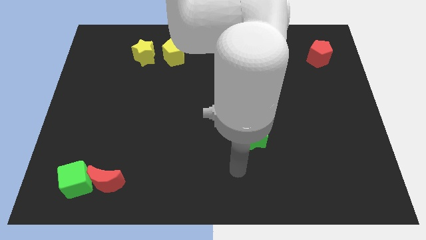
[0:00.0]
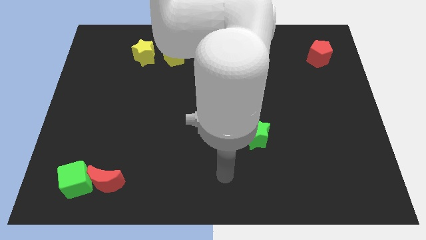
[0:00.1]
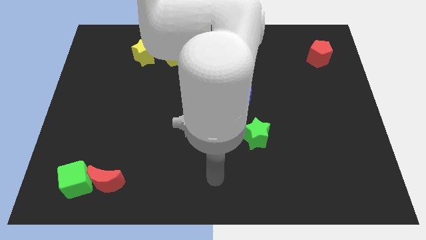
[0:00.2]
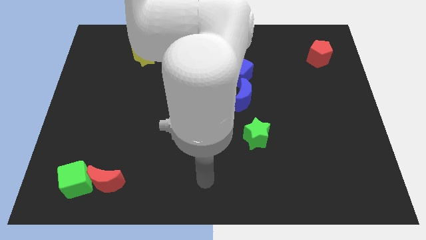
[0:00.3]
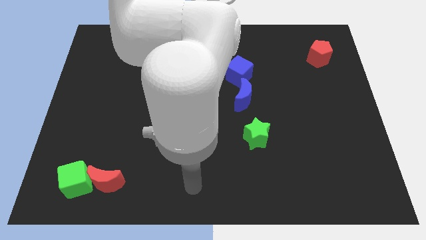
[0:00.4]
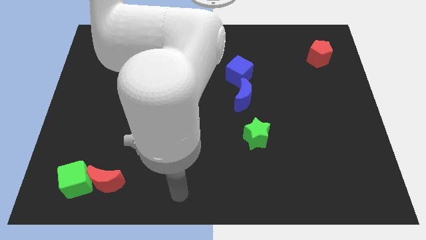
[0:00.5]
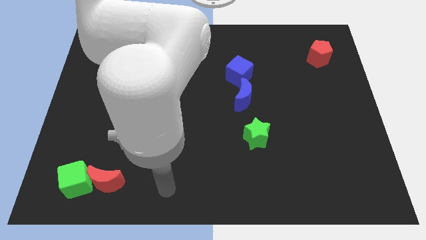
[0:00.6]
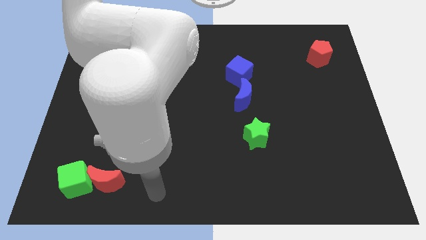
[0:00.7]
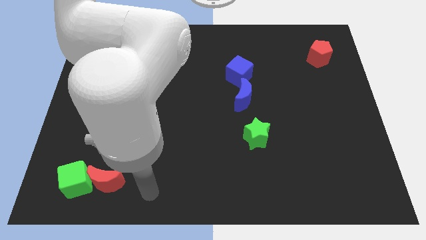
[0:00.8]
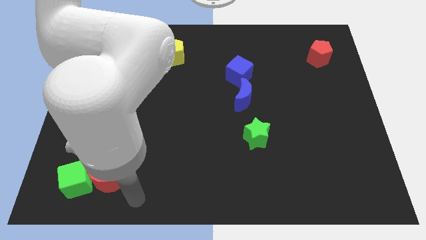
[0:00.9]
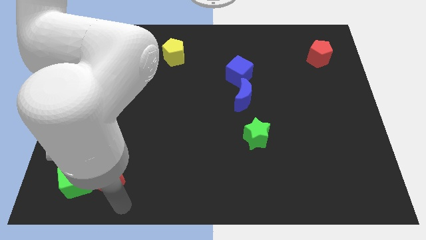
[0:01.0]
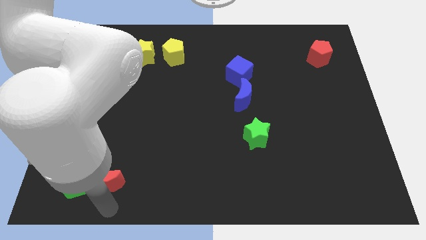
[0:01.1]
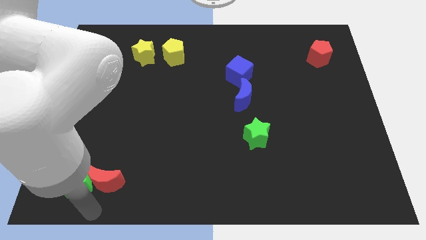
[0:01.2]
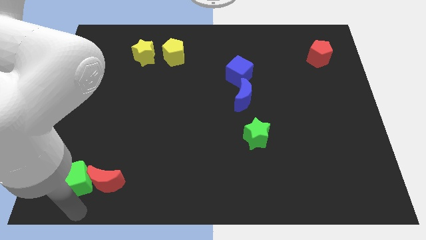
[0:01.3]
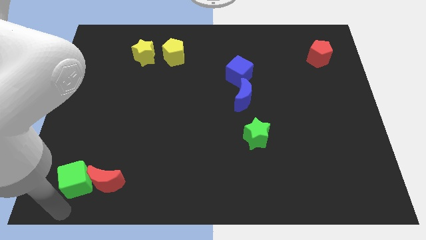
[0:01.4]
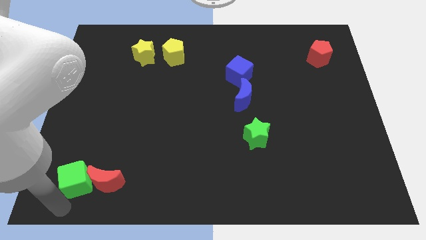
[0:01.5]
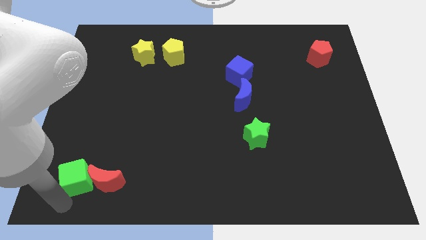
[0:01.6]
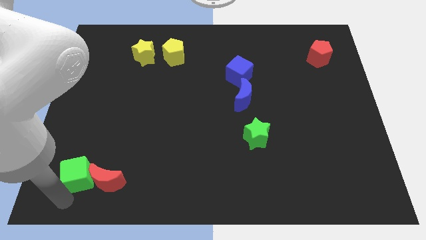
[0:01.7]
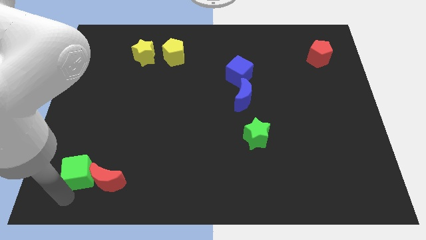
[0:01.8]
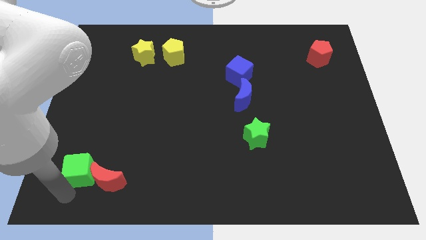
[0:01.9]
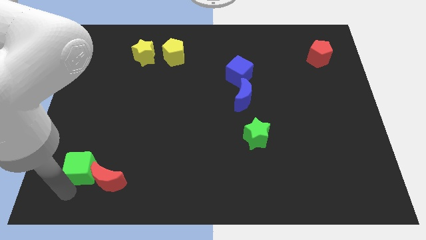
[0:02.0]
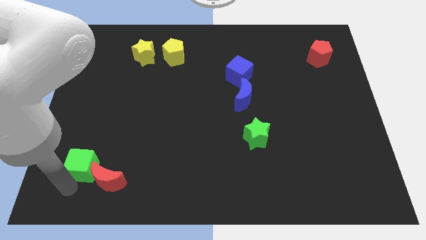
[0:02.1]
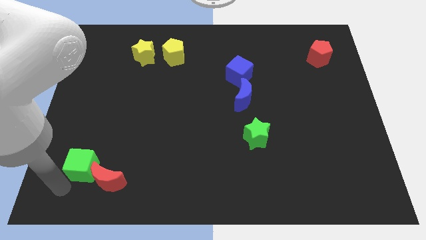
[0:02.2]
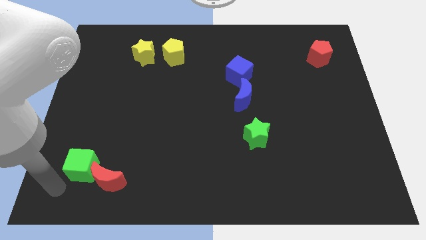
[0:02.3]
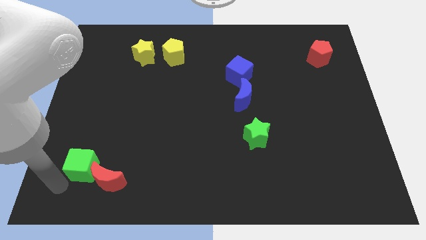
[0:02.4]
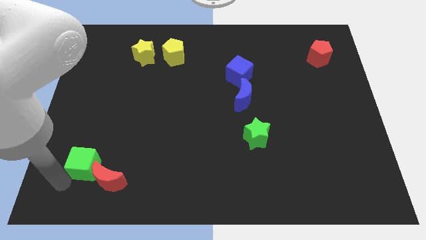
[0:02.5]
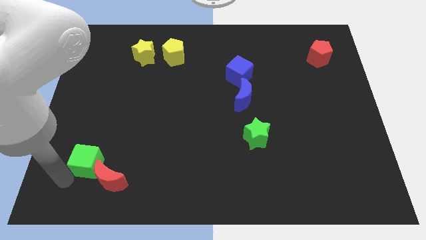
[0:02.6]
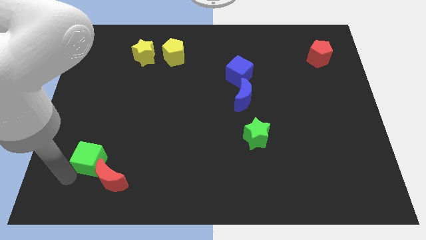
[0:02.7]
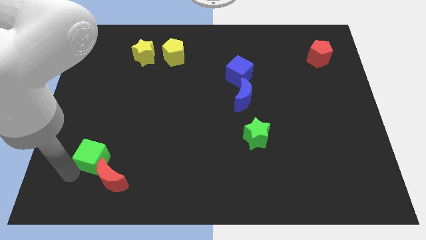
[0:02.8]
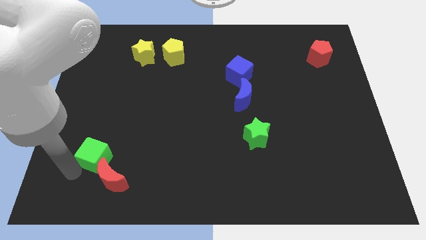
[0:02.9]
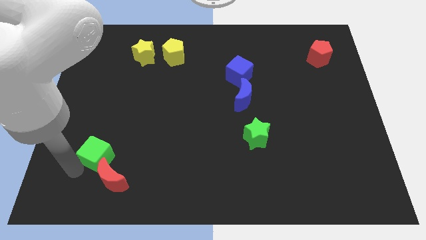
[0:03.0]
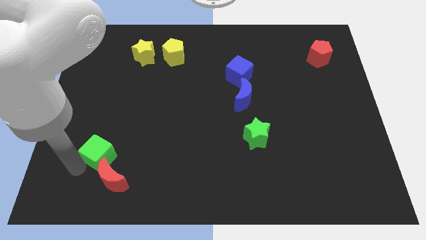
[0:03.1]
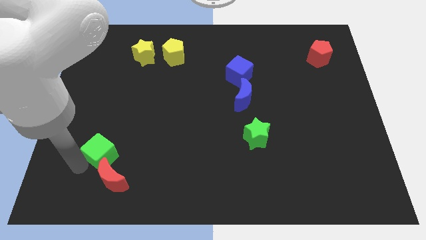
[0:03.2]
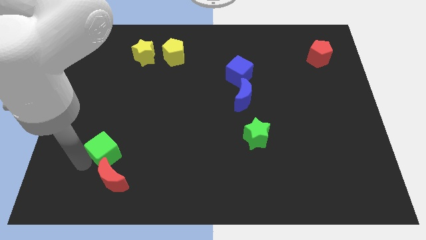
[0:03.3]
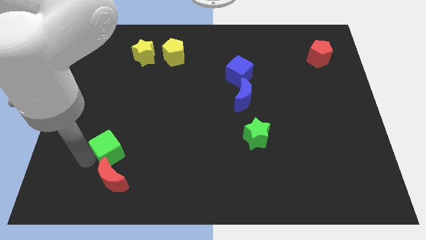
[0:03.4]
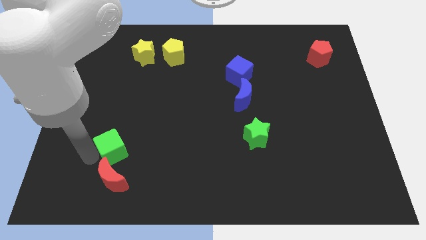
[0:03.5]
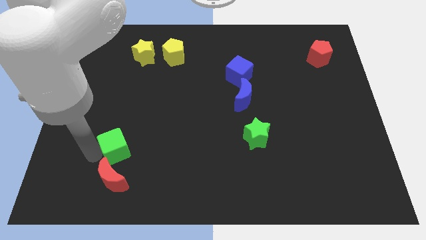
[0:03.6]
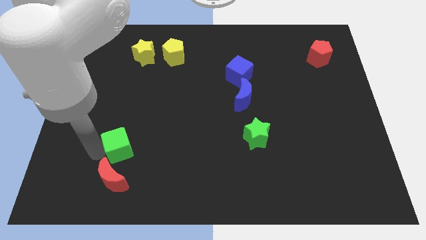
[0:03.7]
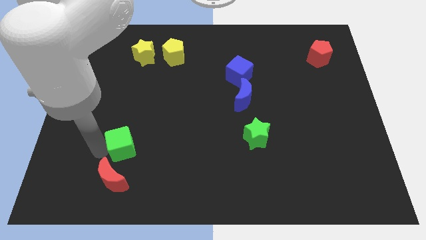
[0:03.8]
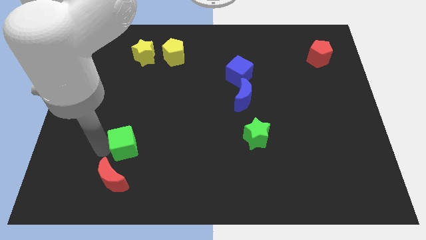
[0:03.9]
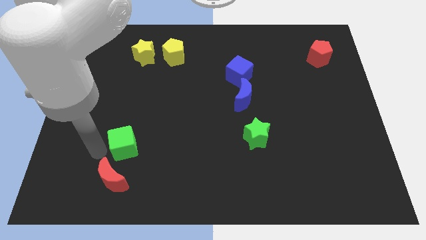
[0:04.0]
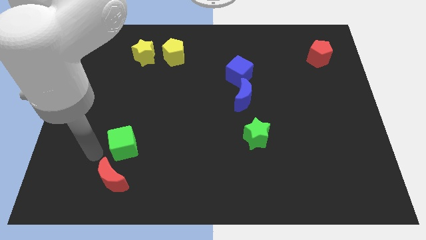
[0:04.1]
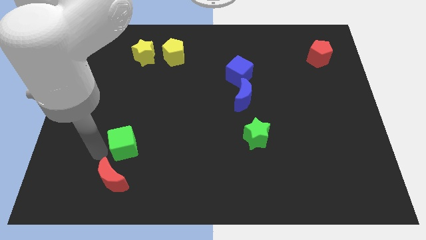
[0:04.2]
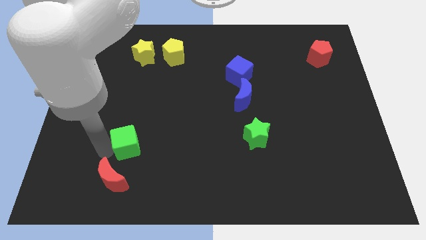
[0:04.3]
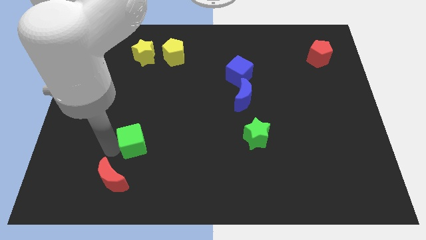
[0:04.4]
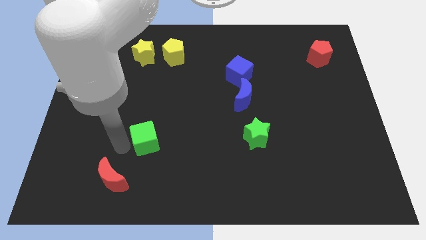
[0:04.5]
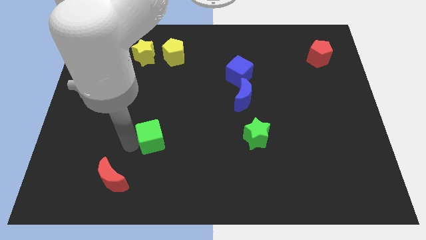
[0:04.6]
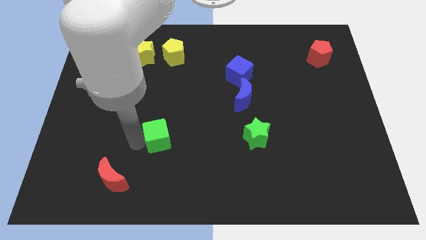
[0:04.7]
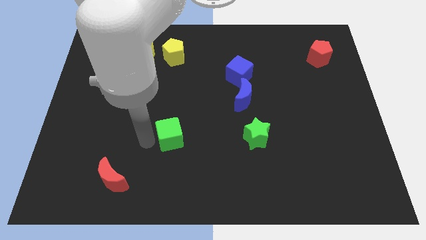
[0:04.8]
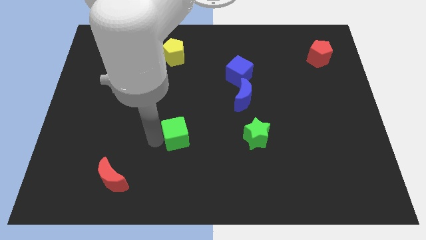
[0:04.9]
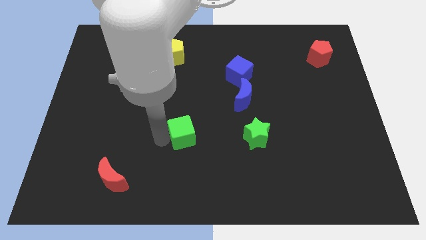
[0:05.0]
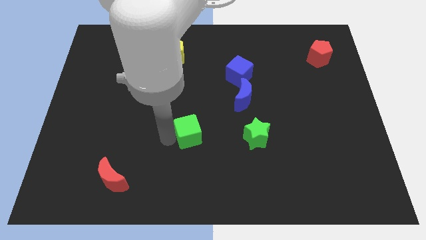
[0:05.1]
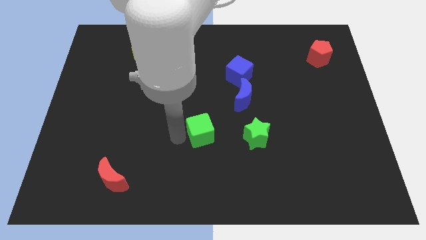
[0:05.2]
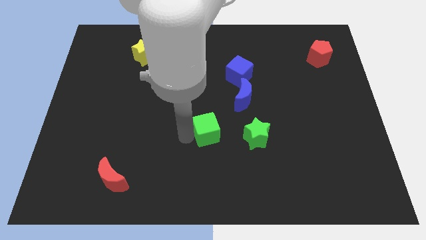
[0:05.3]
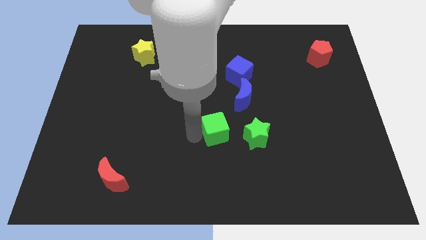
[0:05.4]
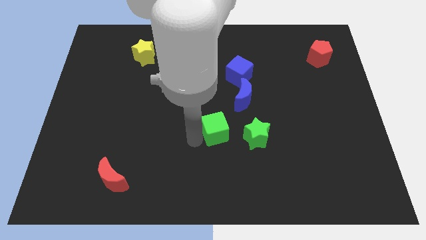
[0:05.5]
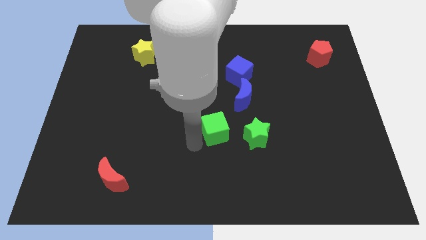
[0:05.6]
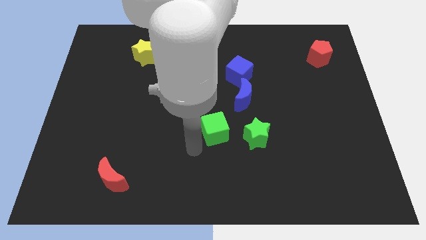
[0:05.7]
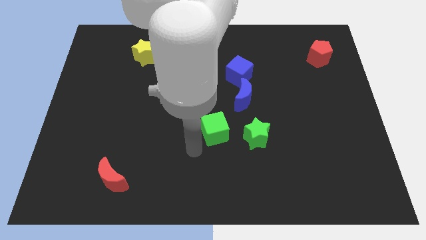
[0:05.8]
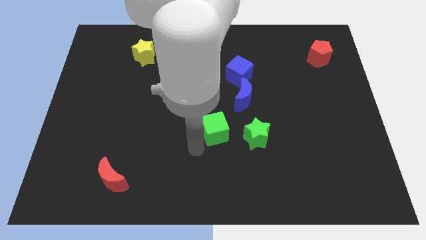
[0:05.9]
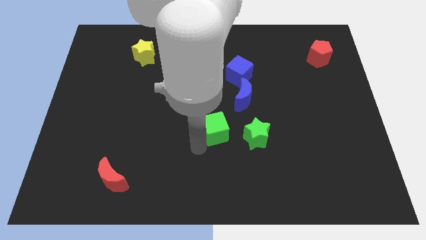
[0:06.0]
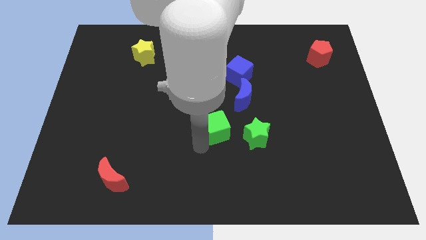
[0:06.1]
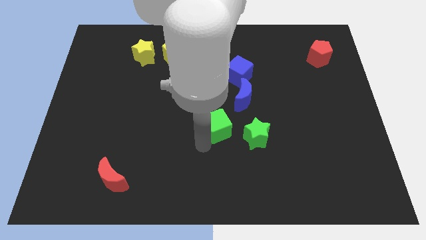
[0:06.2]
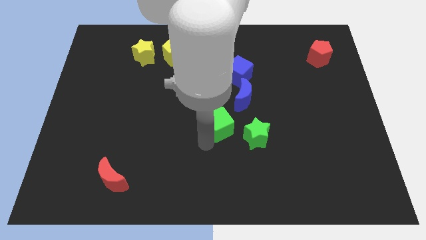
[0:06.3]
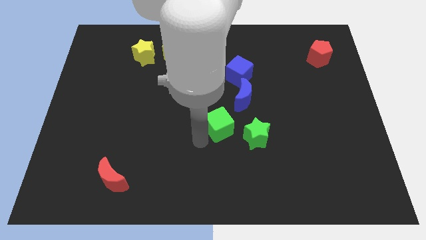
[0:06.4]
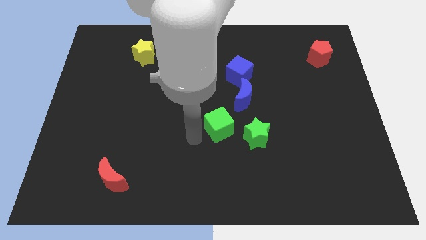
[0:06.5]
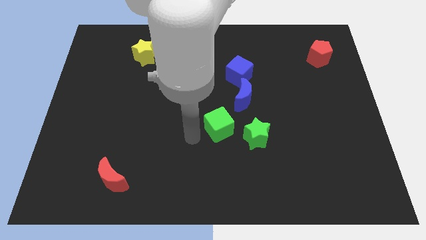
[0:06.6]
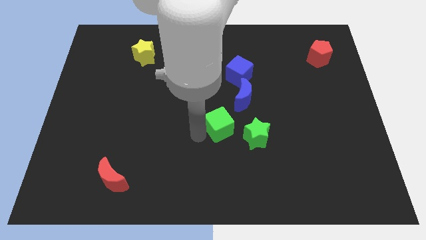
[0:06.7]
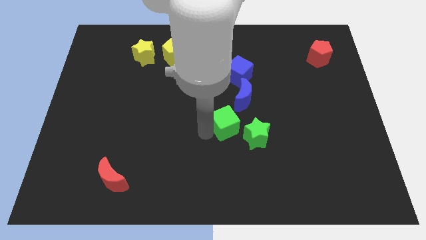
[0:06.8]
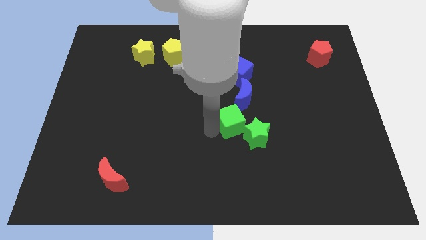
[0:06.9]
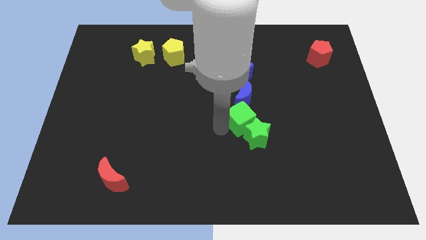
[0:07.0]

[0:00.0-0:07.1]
slide the green cube to the top side of the green star
